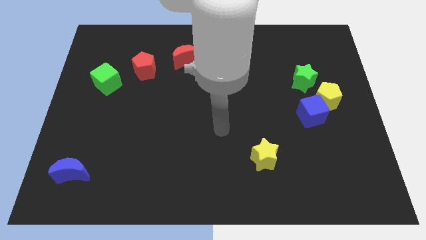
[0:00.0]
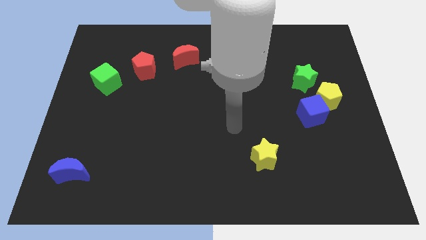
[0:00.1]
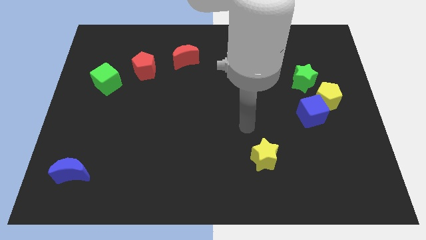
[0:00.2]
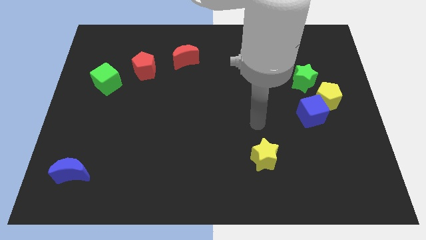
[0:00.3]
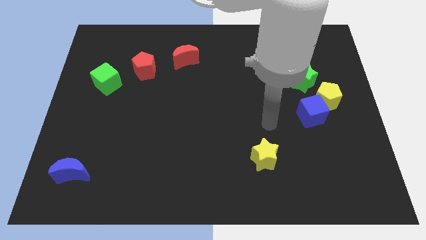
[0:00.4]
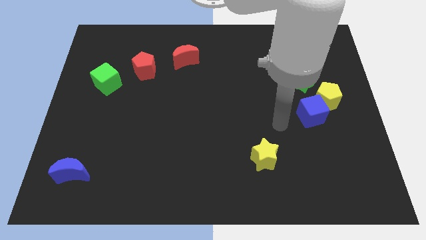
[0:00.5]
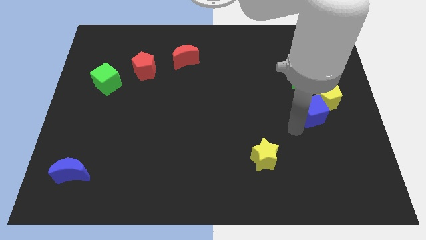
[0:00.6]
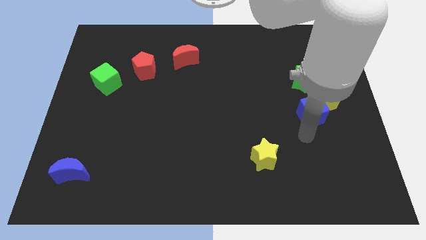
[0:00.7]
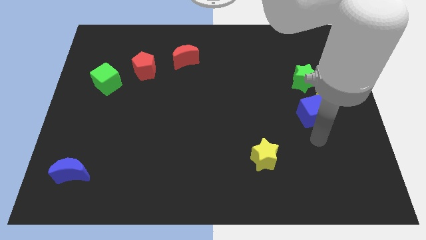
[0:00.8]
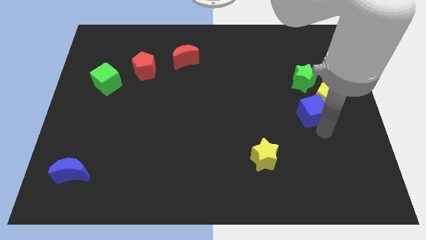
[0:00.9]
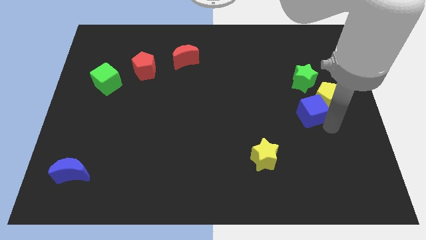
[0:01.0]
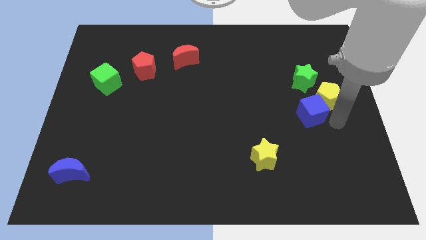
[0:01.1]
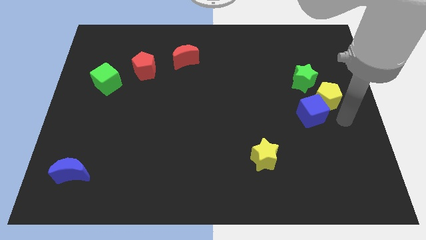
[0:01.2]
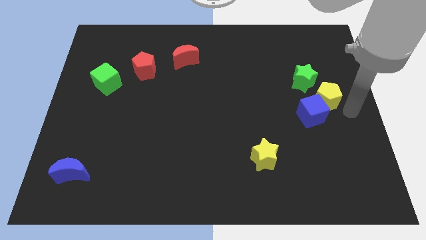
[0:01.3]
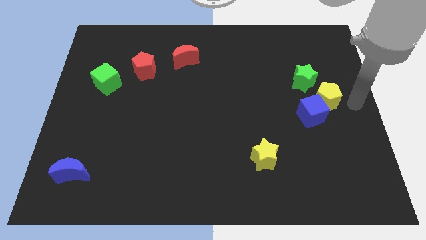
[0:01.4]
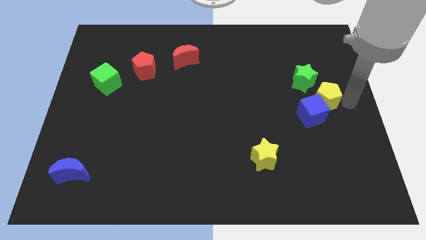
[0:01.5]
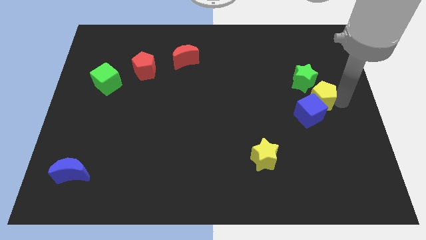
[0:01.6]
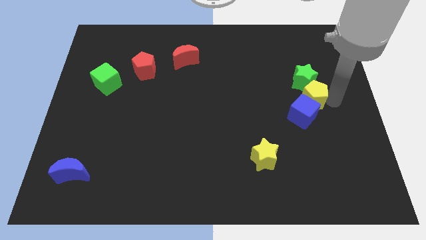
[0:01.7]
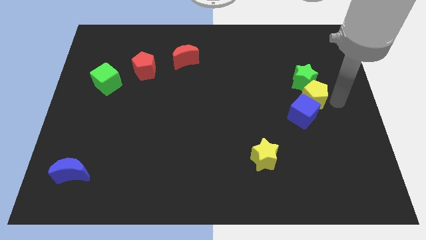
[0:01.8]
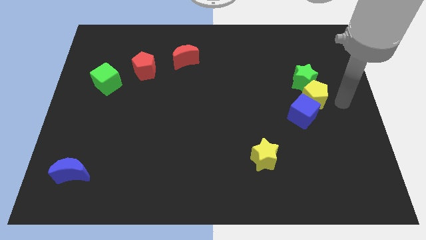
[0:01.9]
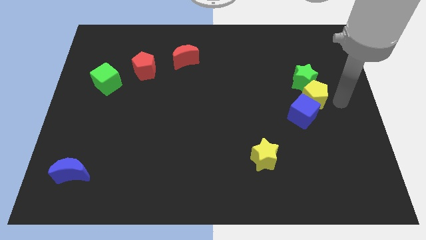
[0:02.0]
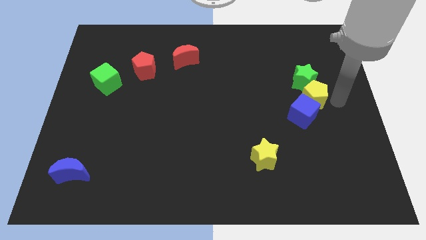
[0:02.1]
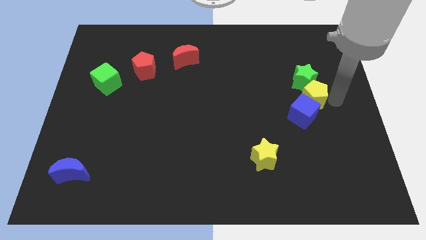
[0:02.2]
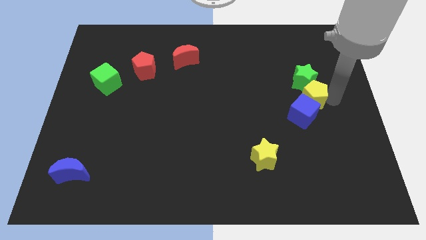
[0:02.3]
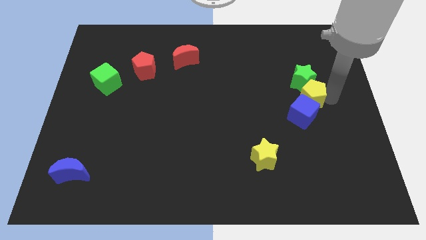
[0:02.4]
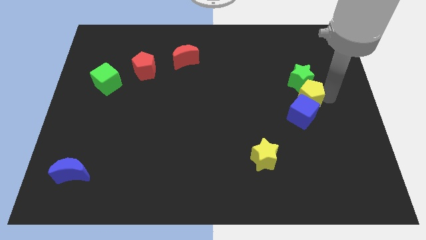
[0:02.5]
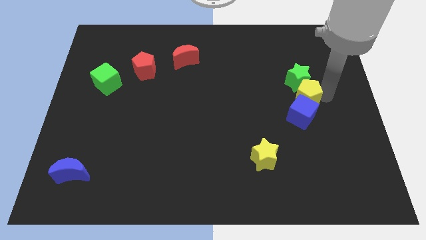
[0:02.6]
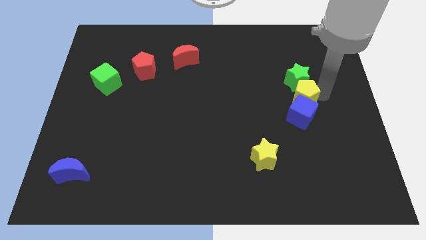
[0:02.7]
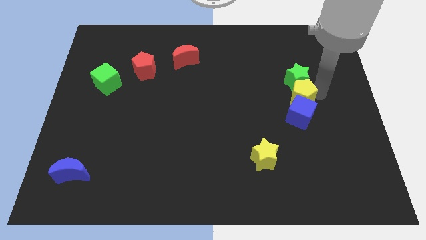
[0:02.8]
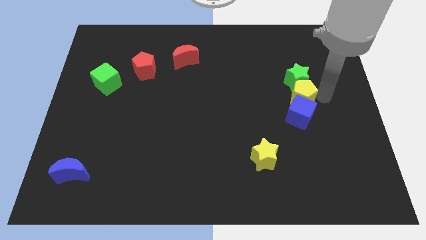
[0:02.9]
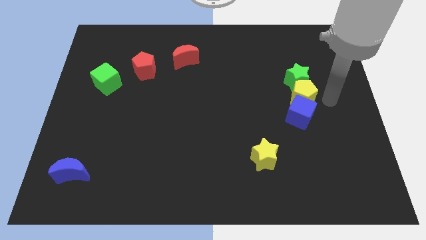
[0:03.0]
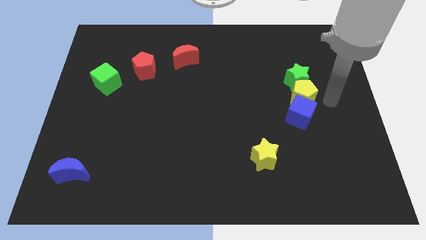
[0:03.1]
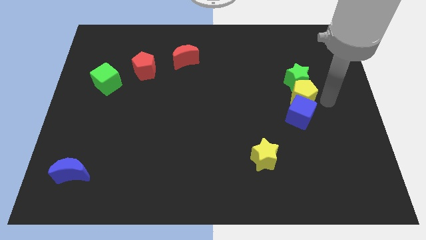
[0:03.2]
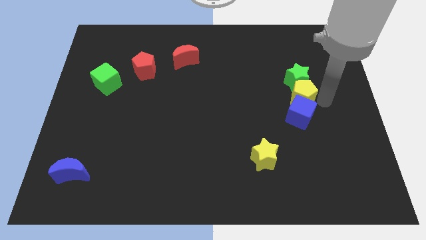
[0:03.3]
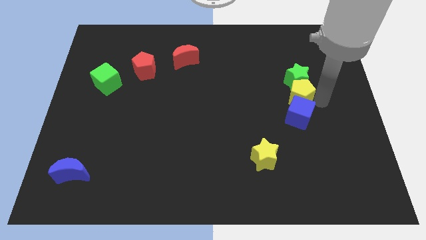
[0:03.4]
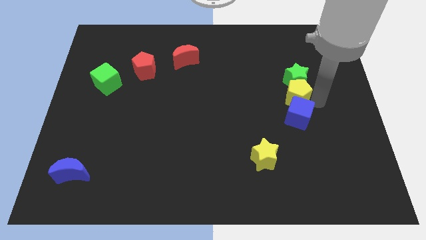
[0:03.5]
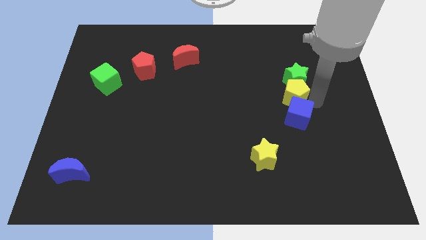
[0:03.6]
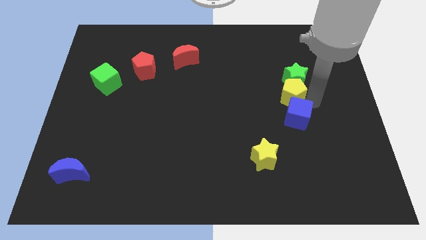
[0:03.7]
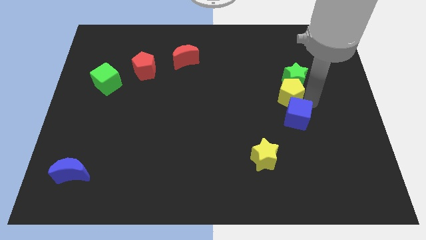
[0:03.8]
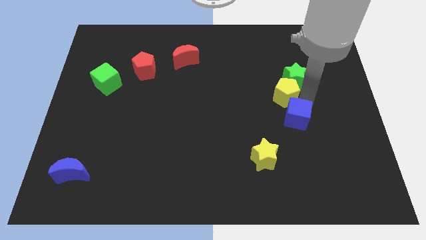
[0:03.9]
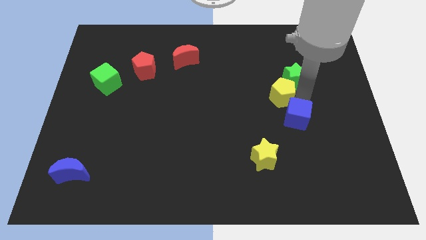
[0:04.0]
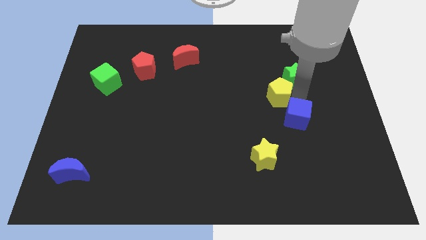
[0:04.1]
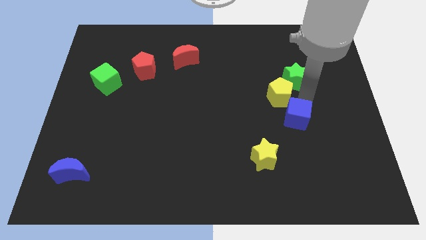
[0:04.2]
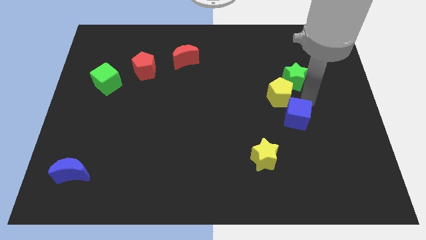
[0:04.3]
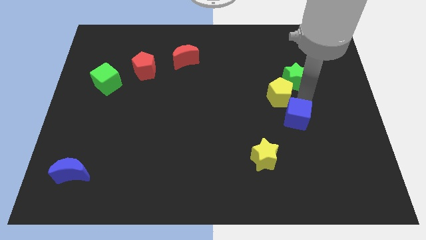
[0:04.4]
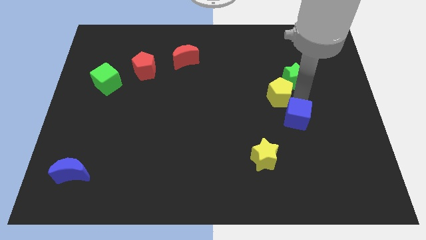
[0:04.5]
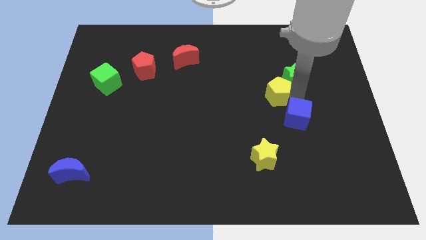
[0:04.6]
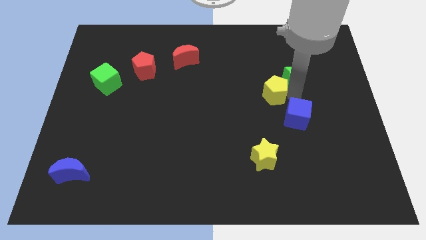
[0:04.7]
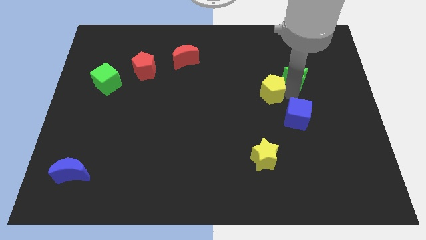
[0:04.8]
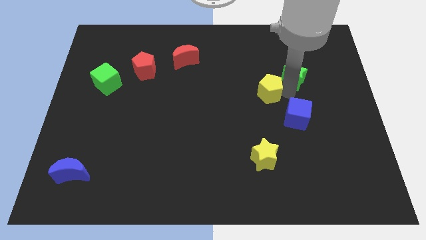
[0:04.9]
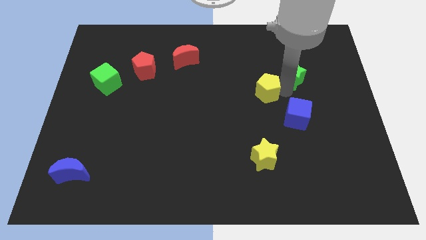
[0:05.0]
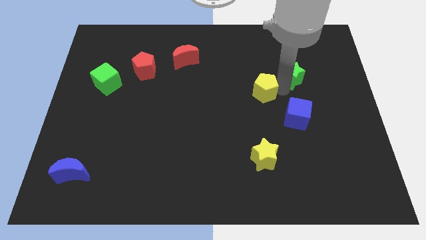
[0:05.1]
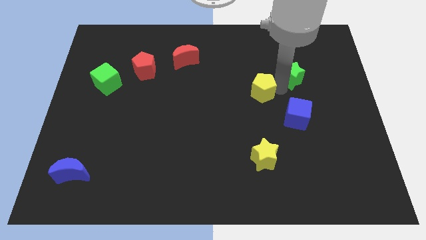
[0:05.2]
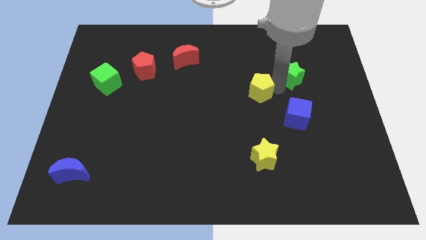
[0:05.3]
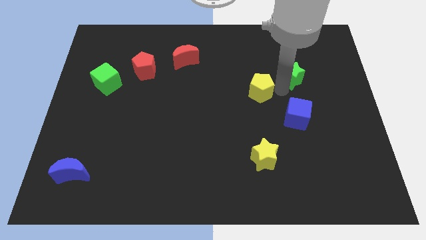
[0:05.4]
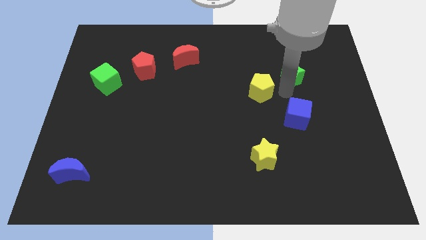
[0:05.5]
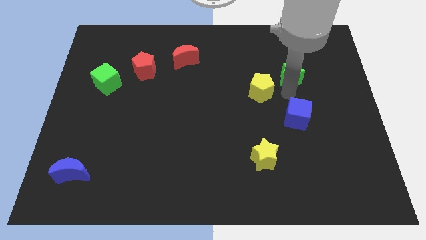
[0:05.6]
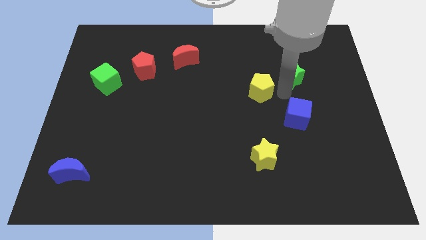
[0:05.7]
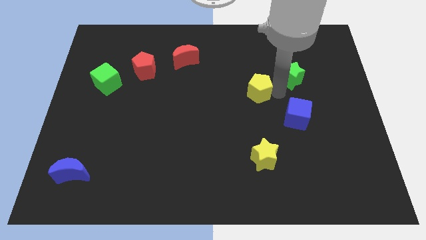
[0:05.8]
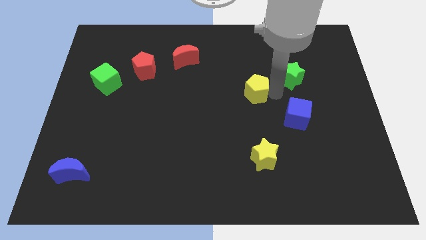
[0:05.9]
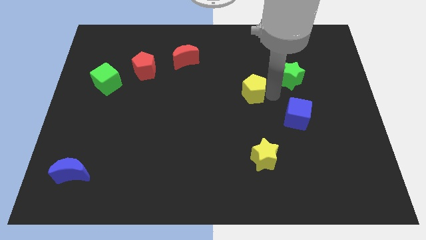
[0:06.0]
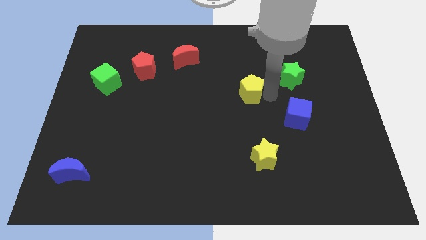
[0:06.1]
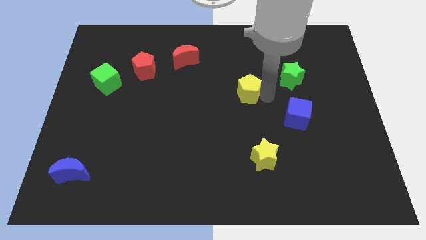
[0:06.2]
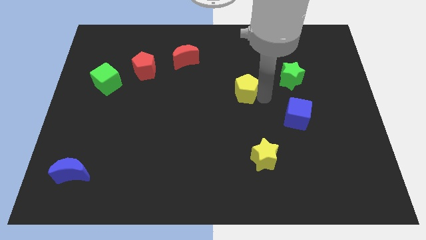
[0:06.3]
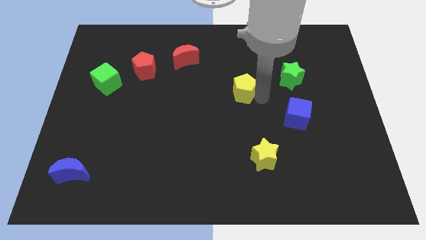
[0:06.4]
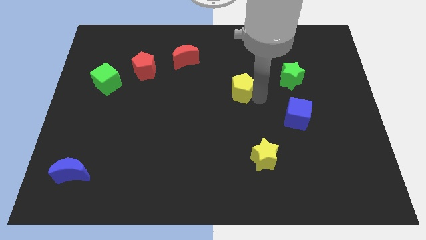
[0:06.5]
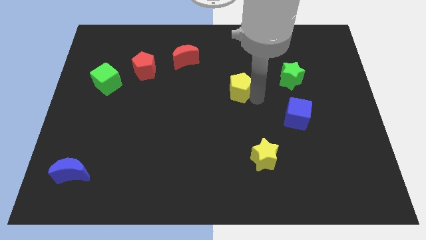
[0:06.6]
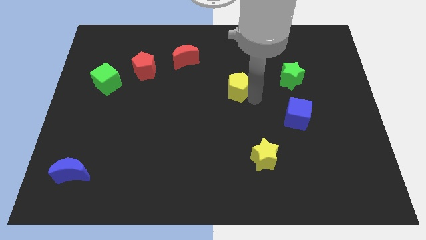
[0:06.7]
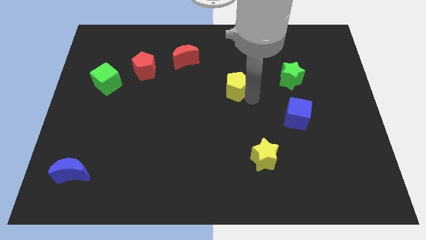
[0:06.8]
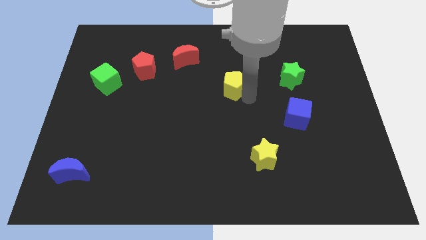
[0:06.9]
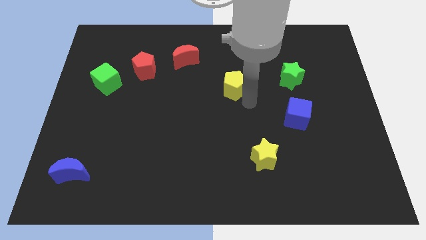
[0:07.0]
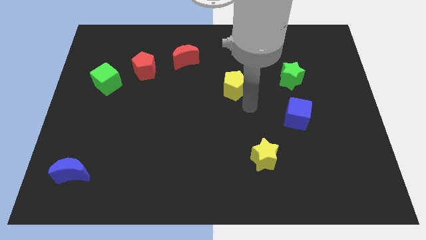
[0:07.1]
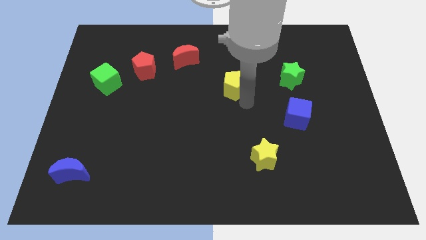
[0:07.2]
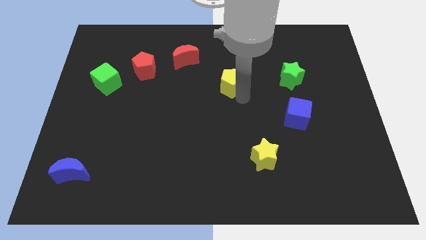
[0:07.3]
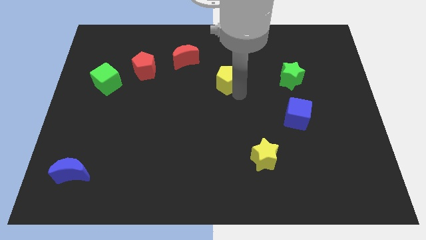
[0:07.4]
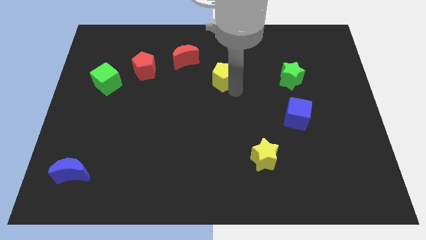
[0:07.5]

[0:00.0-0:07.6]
put the yellow pentagon to the bottom right side of the red moon
